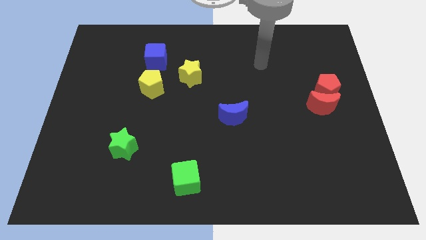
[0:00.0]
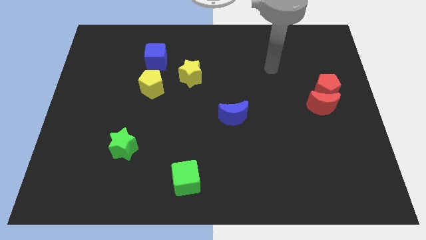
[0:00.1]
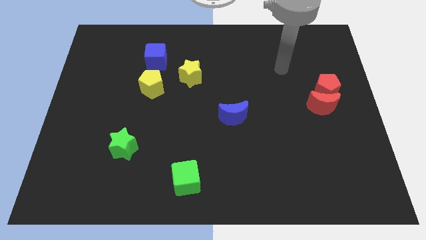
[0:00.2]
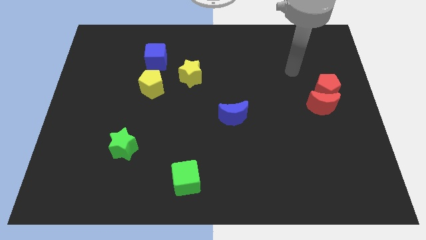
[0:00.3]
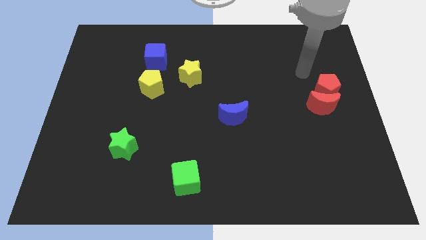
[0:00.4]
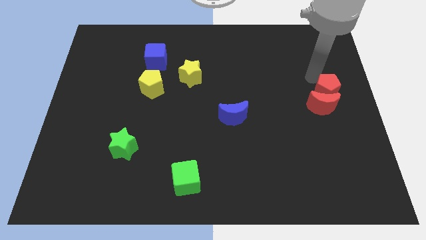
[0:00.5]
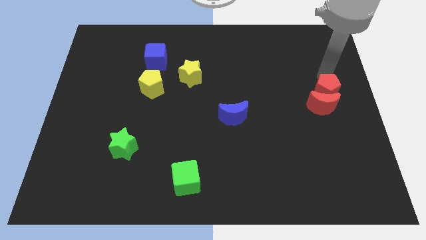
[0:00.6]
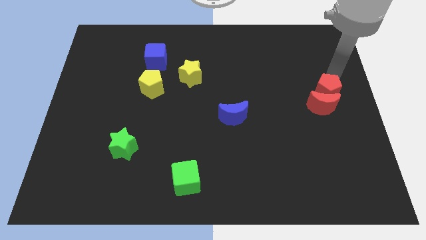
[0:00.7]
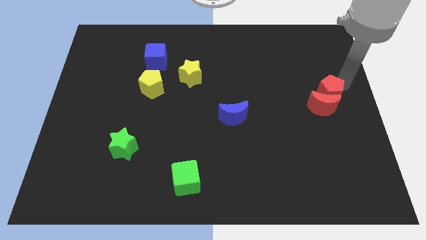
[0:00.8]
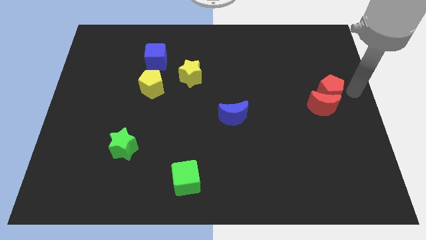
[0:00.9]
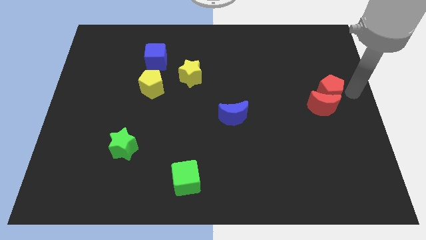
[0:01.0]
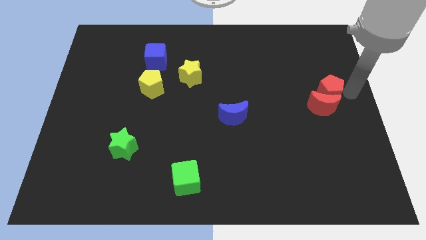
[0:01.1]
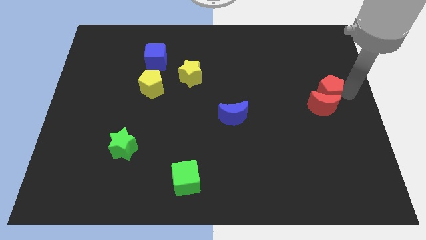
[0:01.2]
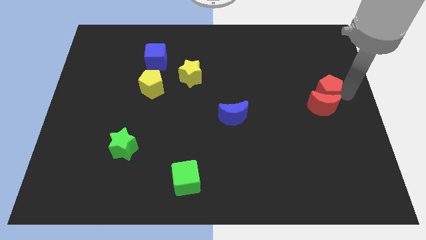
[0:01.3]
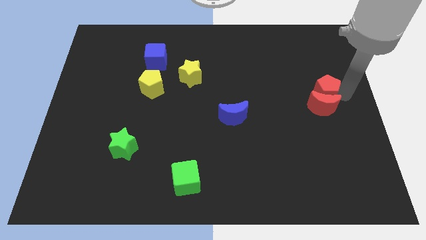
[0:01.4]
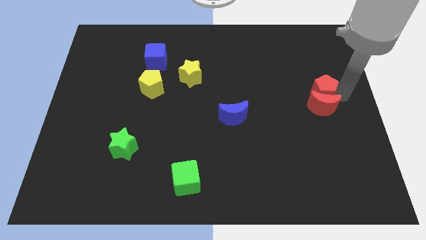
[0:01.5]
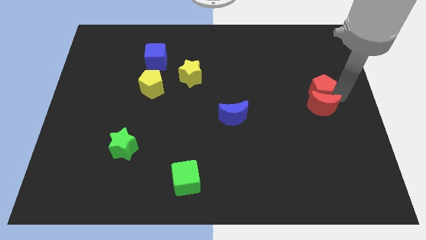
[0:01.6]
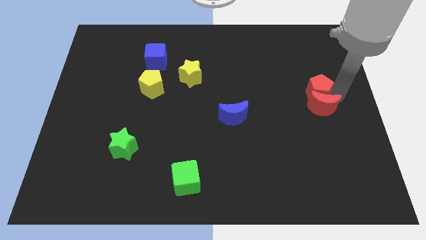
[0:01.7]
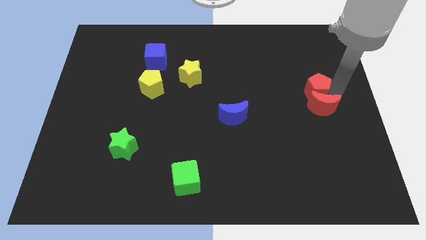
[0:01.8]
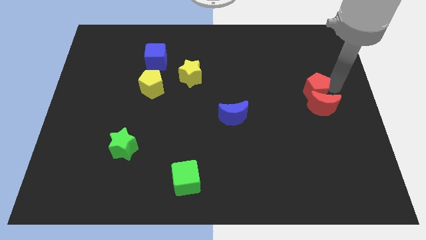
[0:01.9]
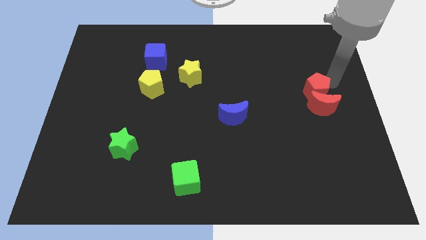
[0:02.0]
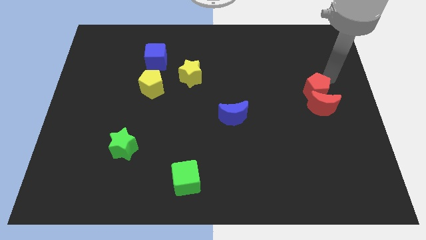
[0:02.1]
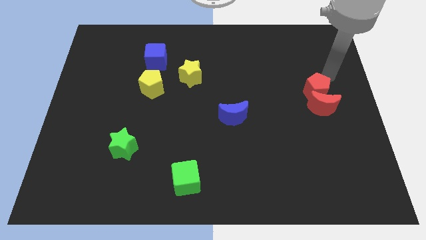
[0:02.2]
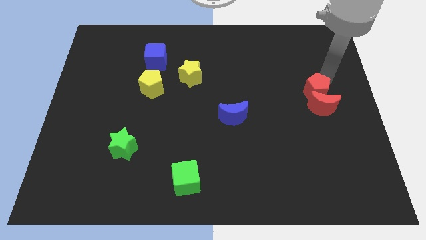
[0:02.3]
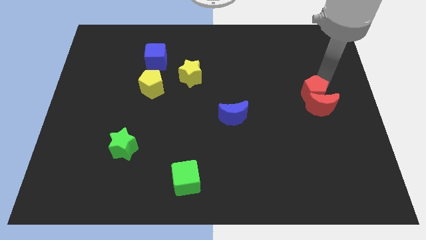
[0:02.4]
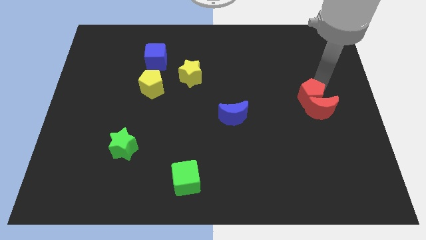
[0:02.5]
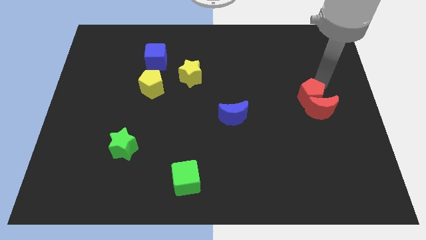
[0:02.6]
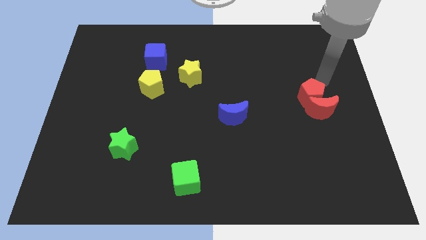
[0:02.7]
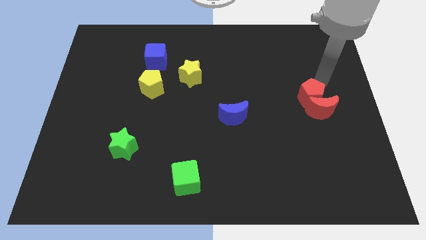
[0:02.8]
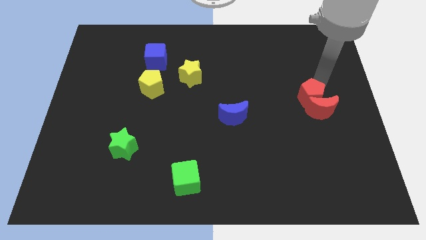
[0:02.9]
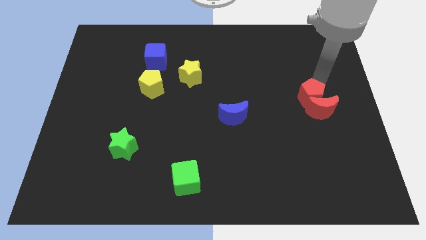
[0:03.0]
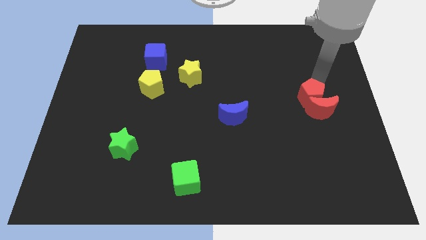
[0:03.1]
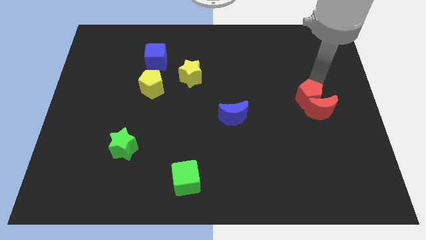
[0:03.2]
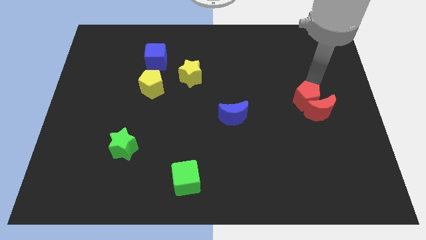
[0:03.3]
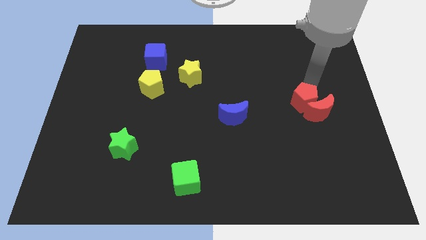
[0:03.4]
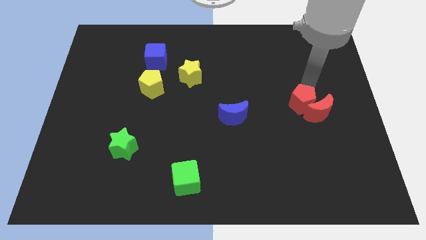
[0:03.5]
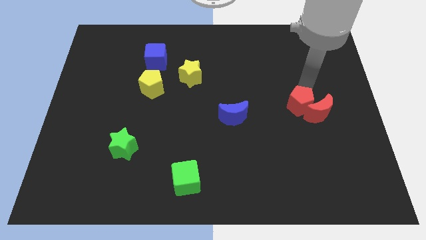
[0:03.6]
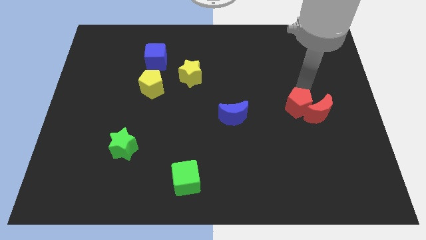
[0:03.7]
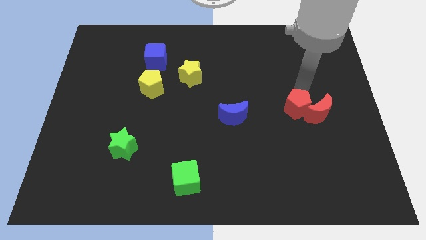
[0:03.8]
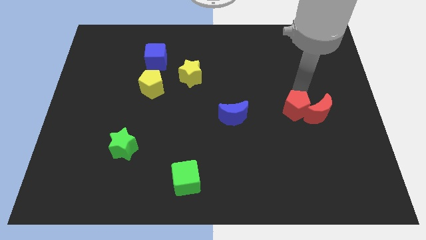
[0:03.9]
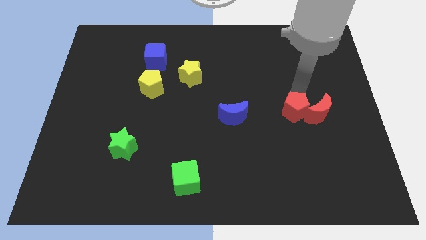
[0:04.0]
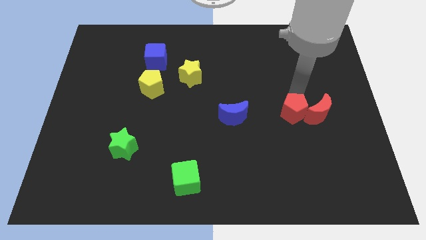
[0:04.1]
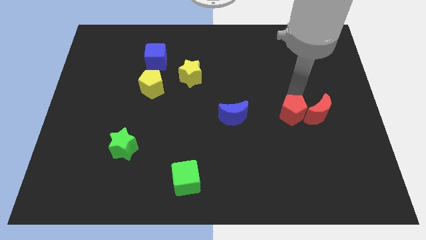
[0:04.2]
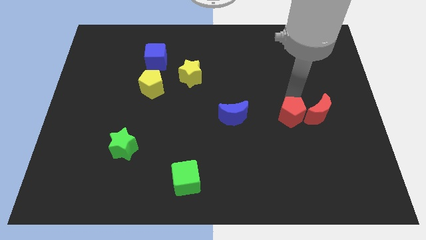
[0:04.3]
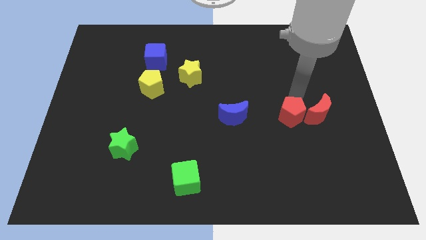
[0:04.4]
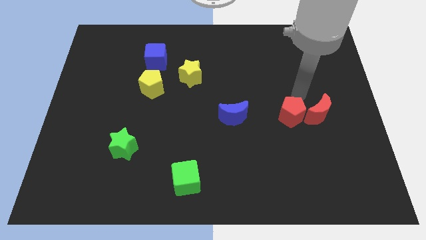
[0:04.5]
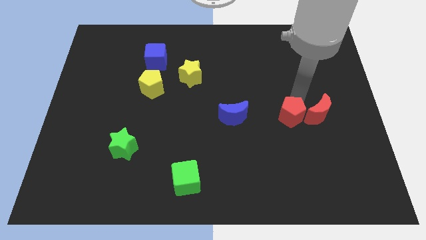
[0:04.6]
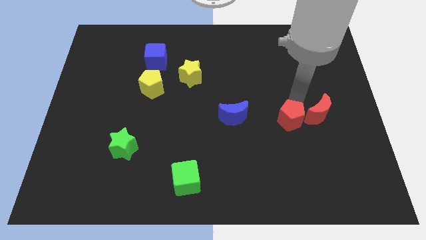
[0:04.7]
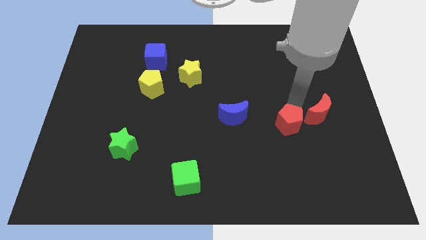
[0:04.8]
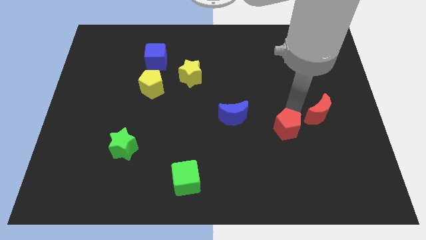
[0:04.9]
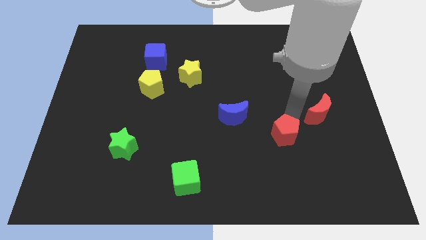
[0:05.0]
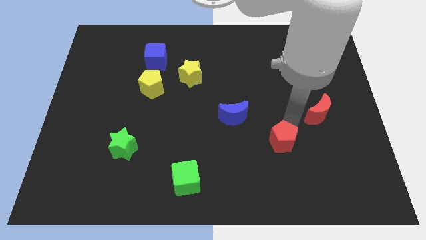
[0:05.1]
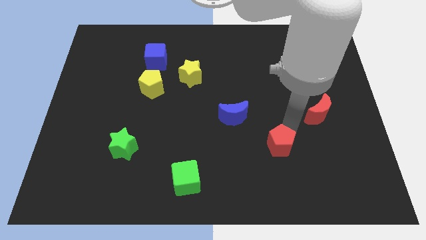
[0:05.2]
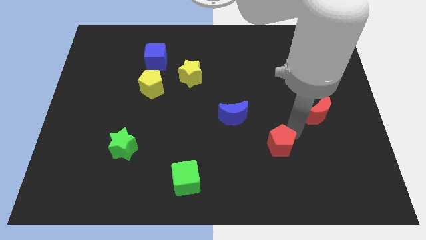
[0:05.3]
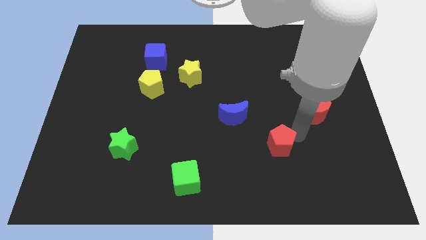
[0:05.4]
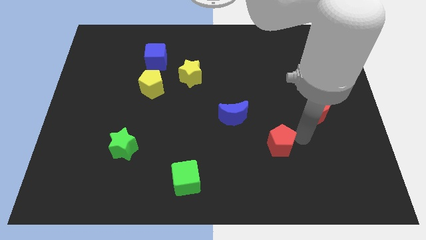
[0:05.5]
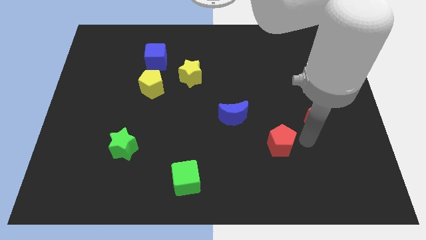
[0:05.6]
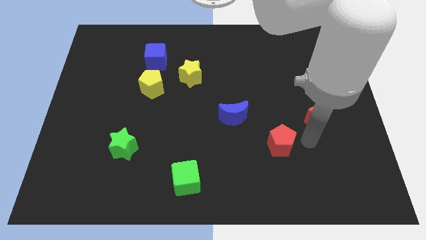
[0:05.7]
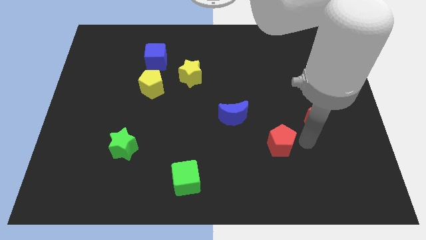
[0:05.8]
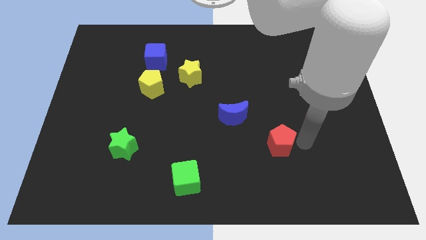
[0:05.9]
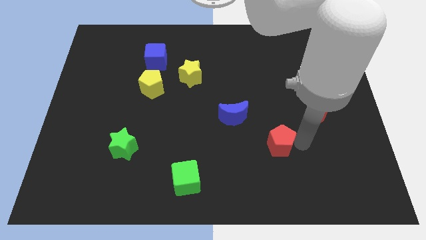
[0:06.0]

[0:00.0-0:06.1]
push the red pentagon downwards and to the left

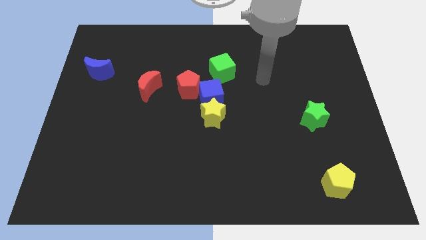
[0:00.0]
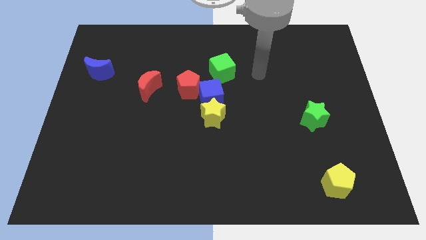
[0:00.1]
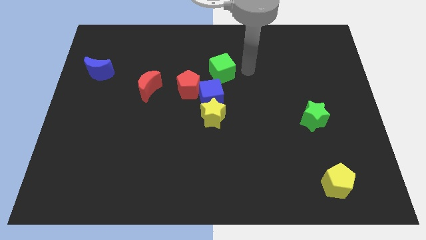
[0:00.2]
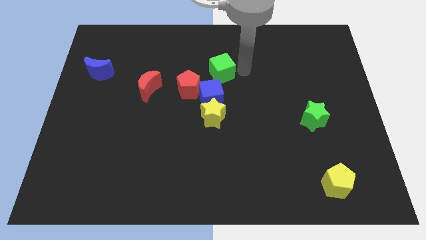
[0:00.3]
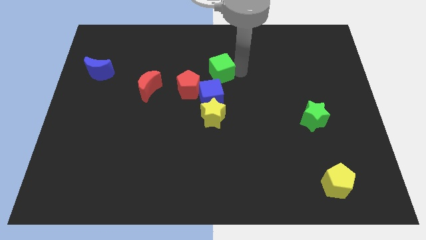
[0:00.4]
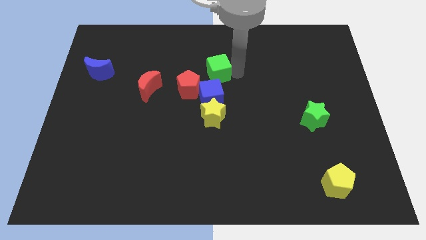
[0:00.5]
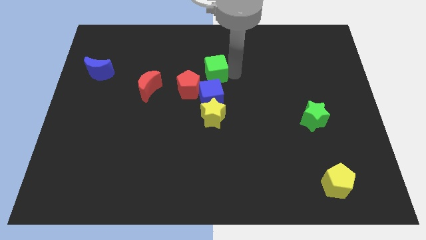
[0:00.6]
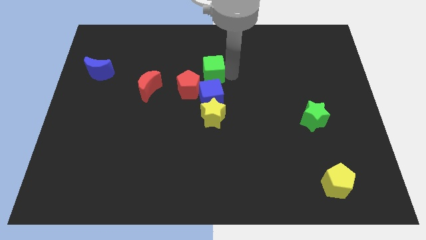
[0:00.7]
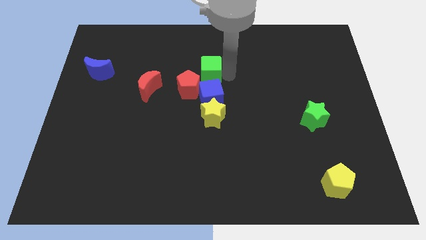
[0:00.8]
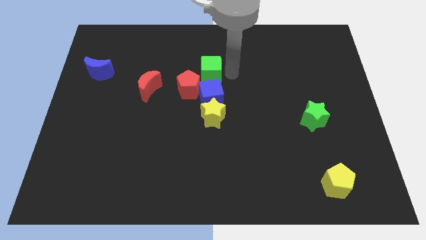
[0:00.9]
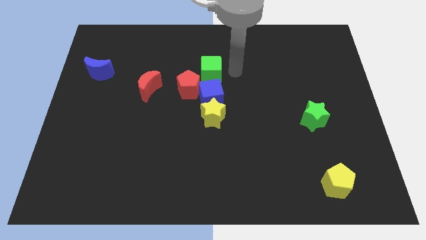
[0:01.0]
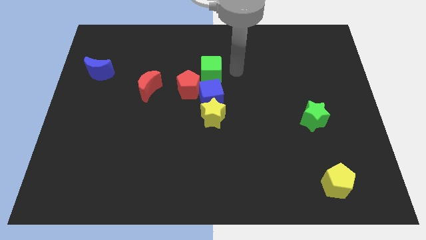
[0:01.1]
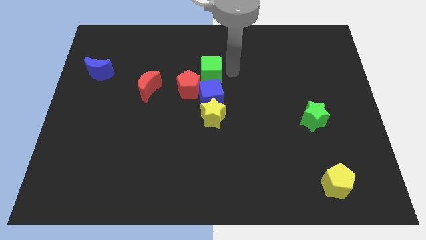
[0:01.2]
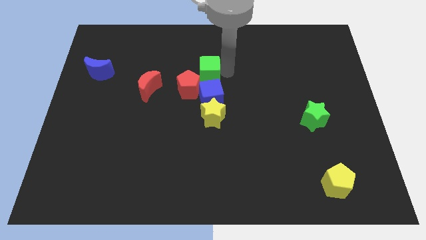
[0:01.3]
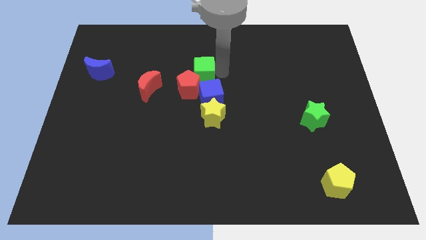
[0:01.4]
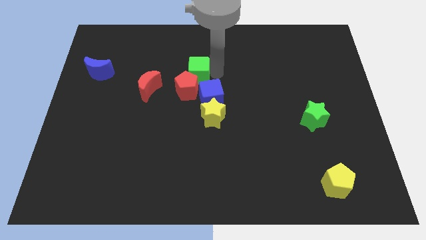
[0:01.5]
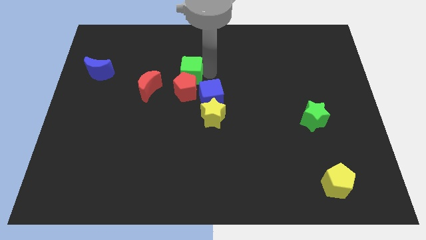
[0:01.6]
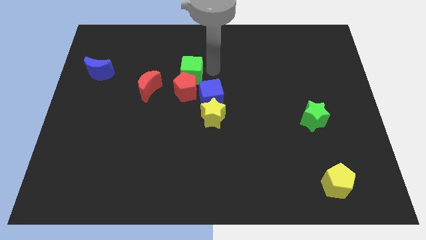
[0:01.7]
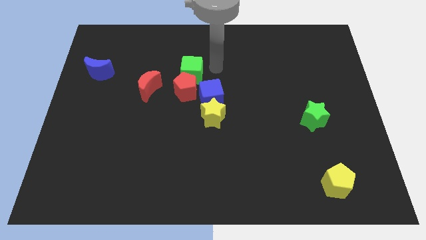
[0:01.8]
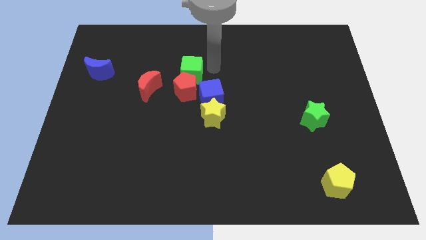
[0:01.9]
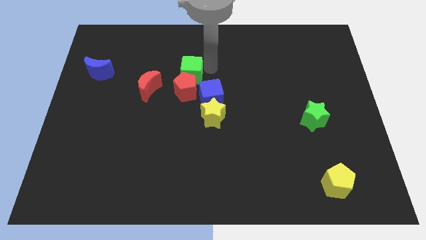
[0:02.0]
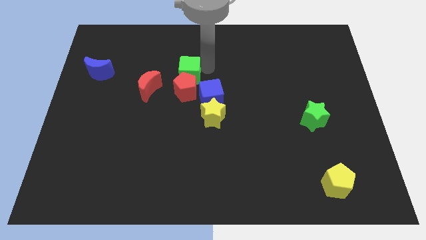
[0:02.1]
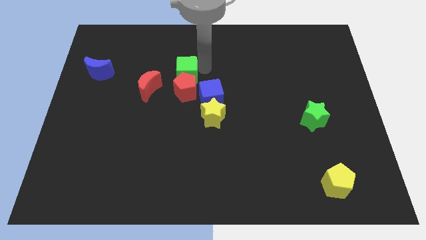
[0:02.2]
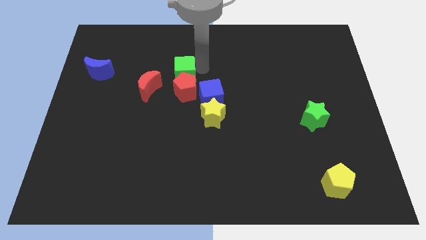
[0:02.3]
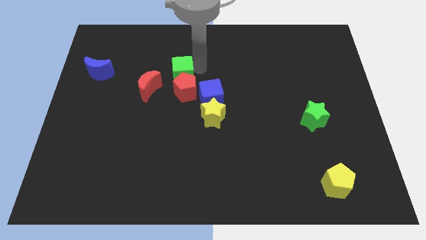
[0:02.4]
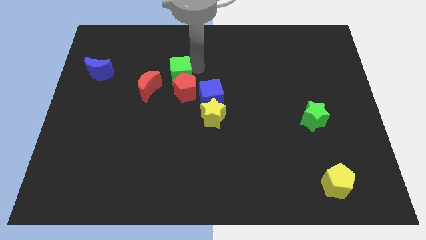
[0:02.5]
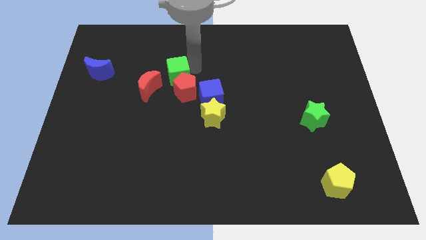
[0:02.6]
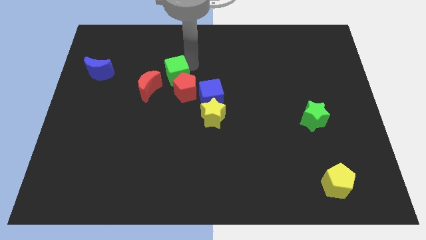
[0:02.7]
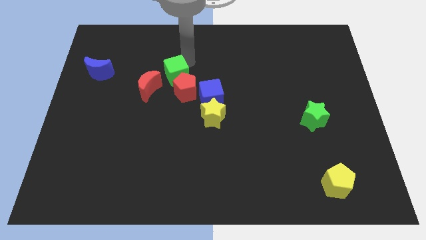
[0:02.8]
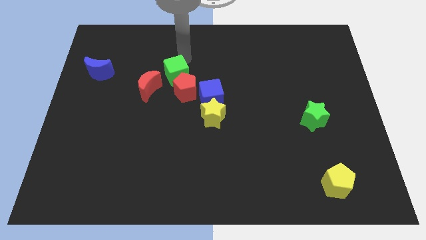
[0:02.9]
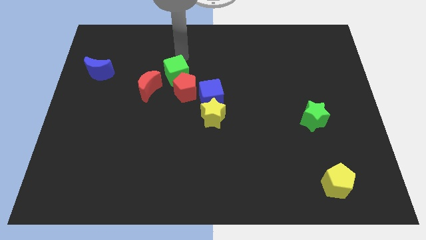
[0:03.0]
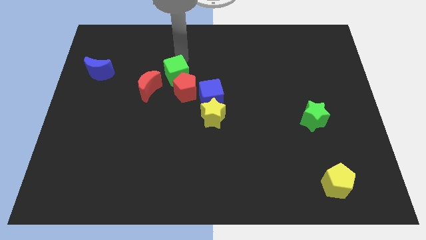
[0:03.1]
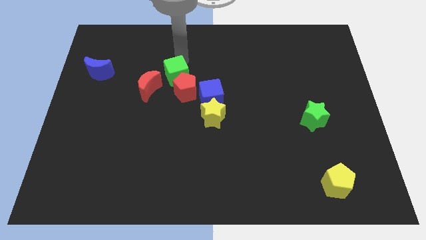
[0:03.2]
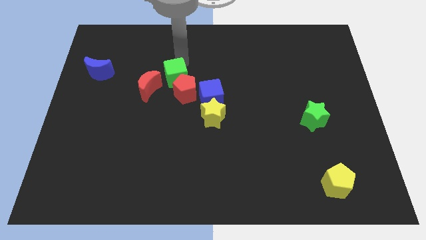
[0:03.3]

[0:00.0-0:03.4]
slightly push the green cube diagonally down and left
